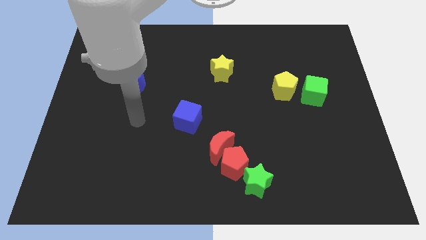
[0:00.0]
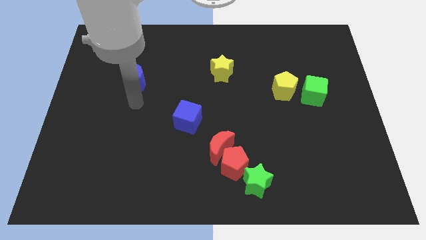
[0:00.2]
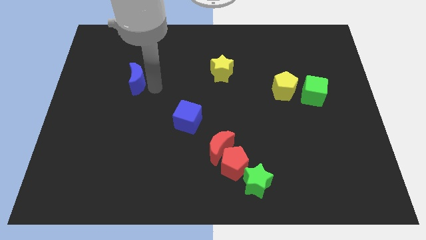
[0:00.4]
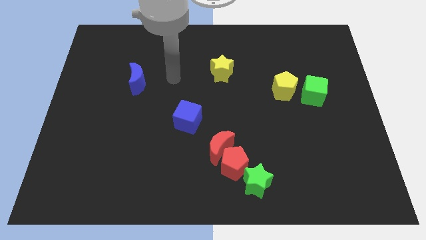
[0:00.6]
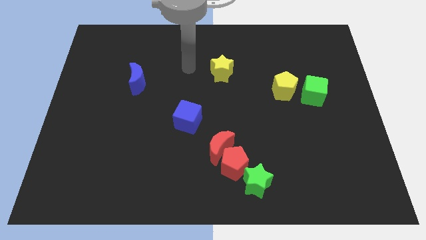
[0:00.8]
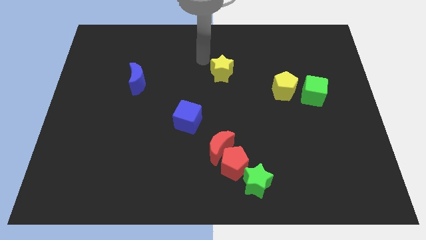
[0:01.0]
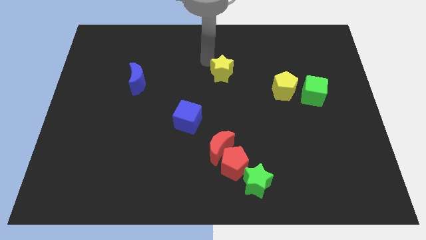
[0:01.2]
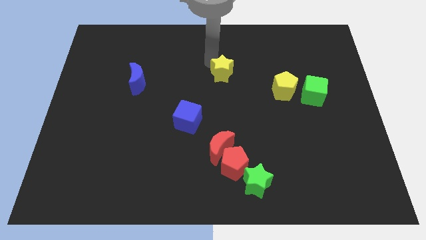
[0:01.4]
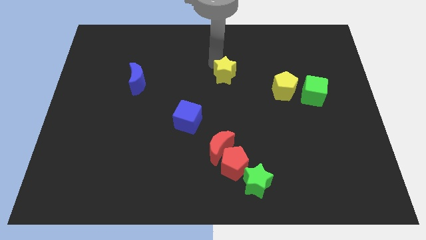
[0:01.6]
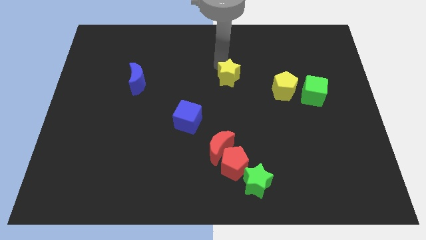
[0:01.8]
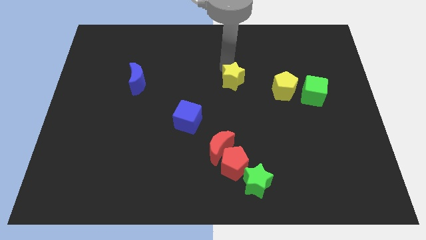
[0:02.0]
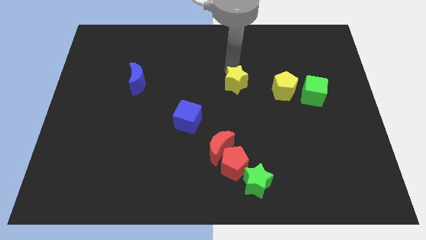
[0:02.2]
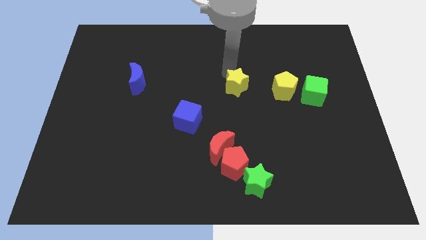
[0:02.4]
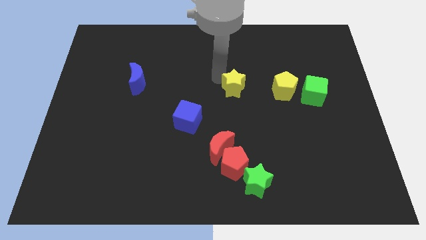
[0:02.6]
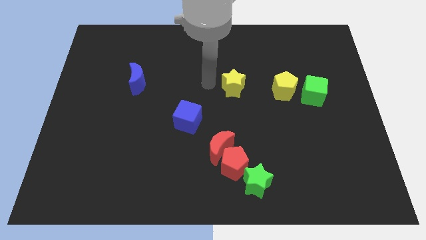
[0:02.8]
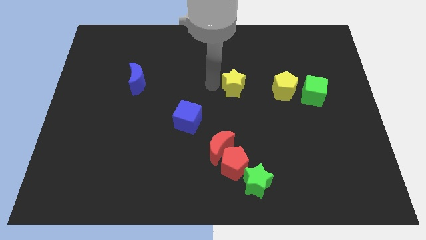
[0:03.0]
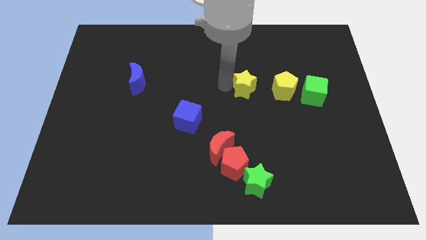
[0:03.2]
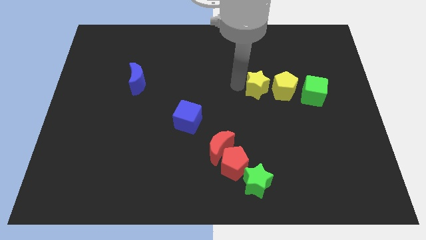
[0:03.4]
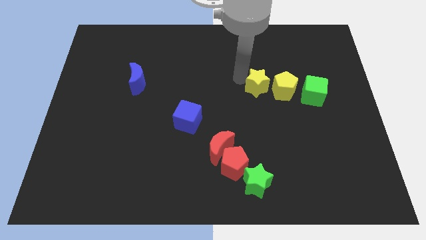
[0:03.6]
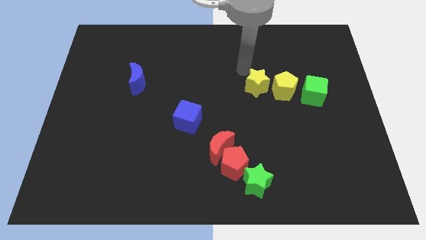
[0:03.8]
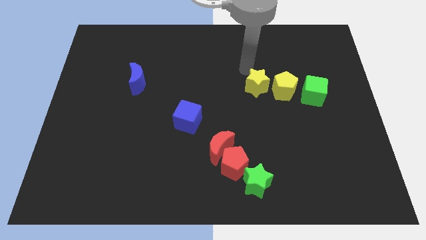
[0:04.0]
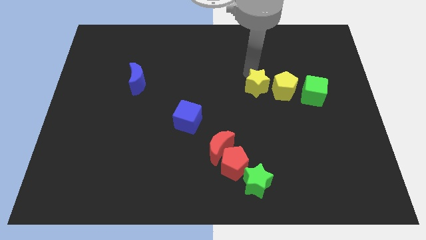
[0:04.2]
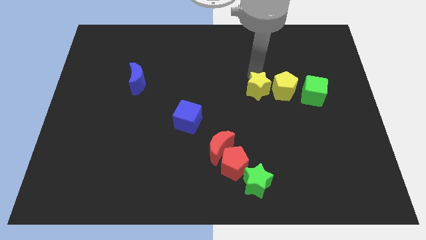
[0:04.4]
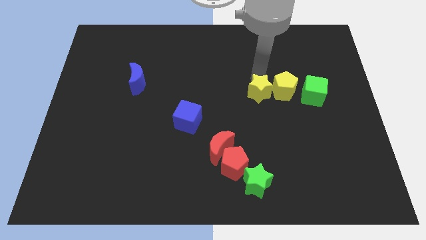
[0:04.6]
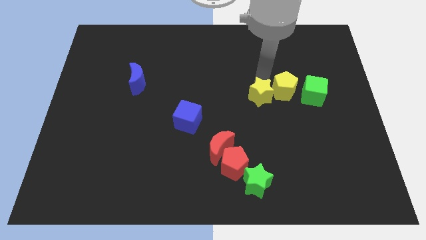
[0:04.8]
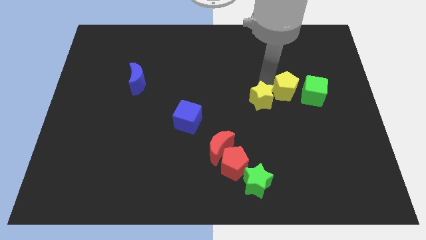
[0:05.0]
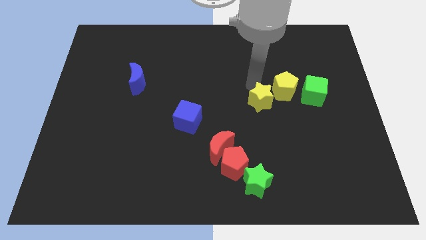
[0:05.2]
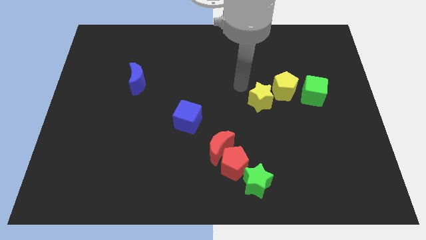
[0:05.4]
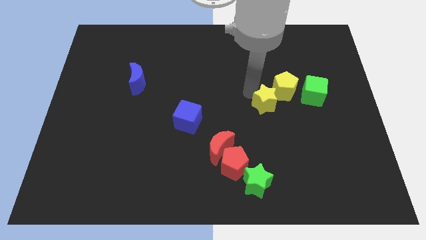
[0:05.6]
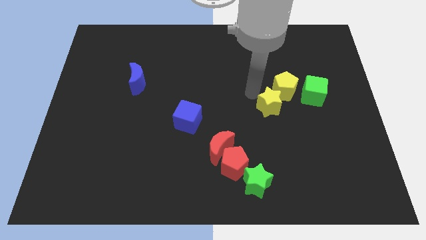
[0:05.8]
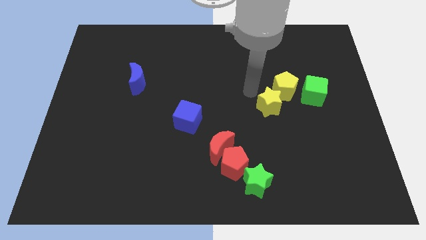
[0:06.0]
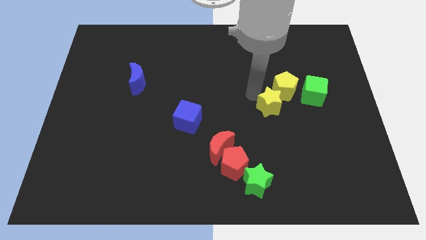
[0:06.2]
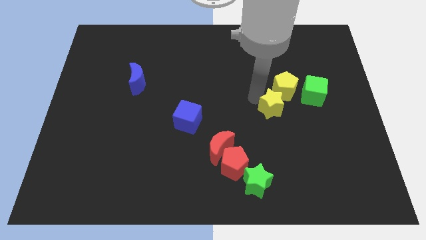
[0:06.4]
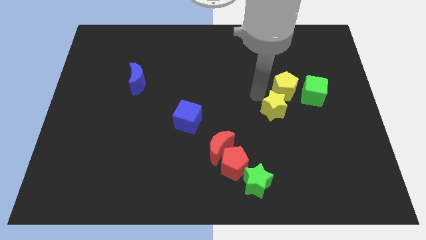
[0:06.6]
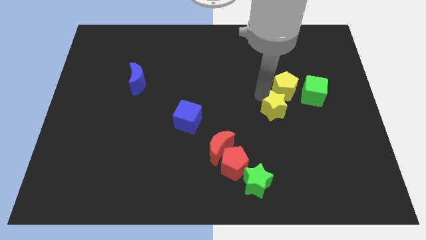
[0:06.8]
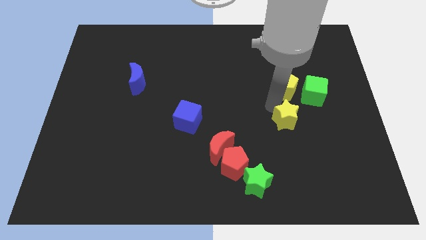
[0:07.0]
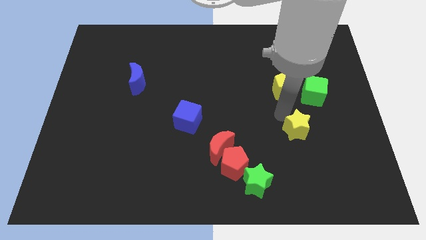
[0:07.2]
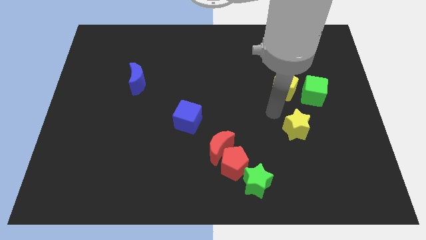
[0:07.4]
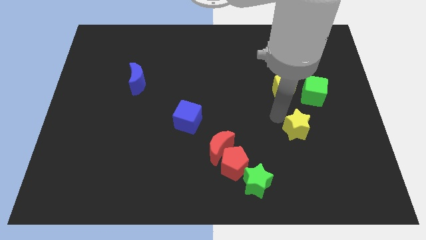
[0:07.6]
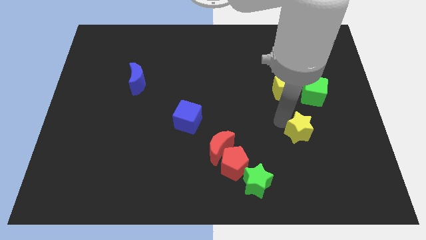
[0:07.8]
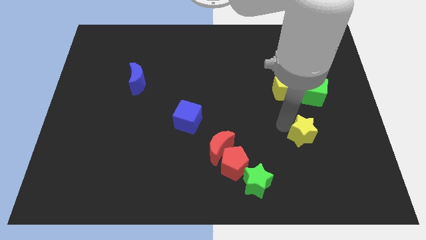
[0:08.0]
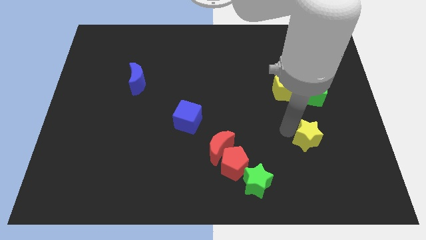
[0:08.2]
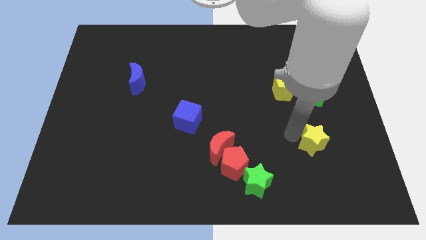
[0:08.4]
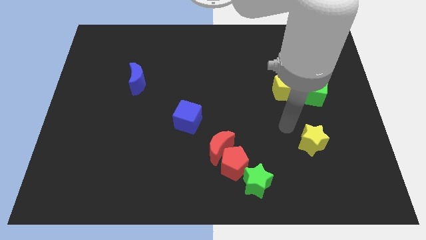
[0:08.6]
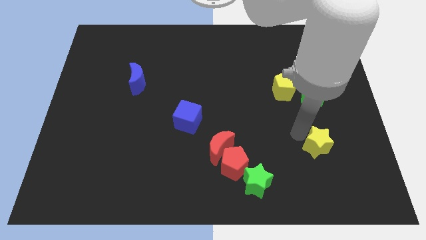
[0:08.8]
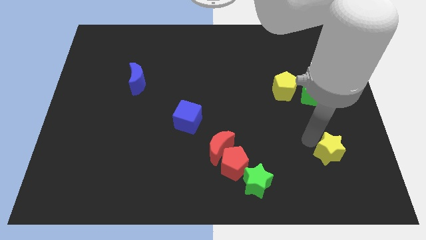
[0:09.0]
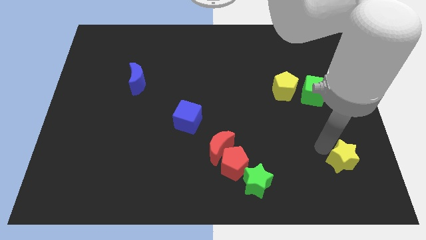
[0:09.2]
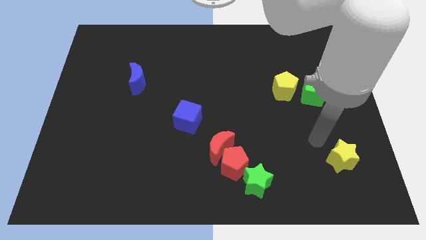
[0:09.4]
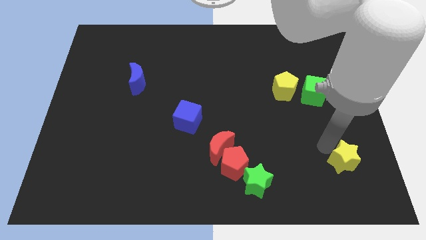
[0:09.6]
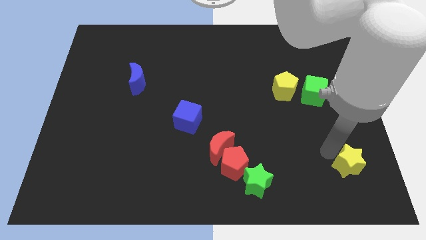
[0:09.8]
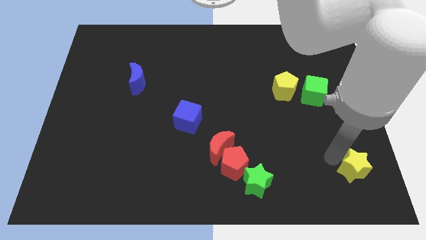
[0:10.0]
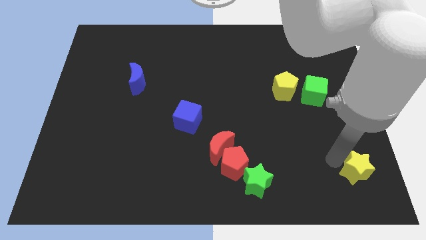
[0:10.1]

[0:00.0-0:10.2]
put the yellow star to the bottom right of the board

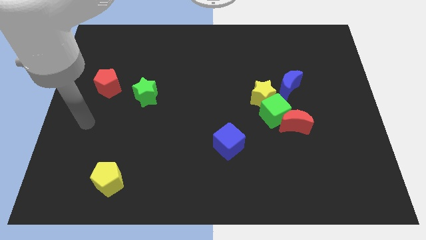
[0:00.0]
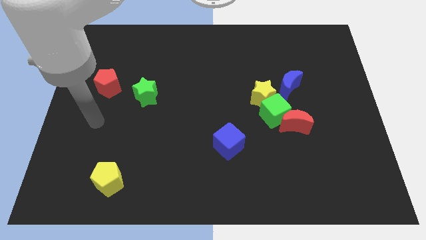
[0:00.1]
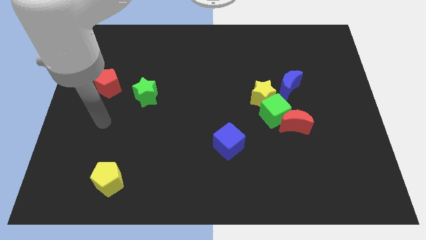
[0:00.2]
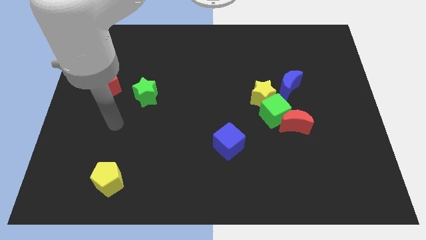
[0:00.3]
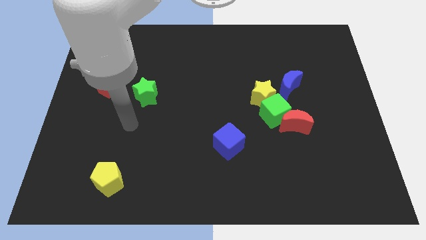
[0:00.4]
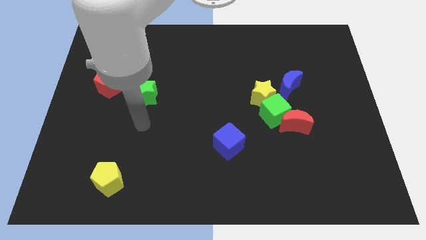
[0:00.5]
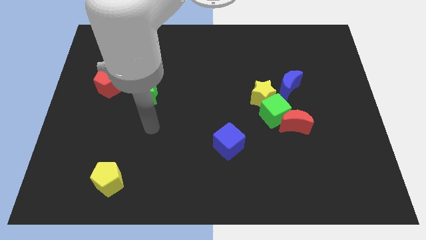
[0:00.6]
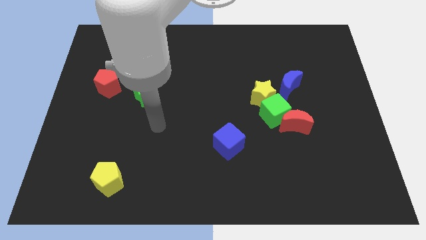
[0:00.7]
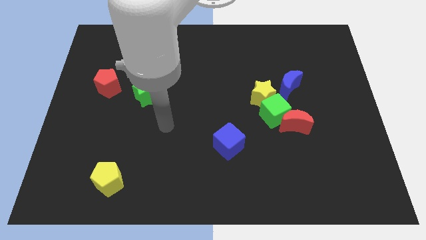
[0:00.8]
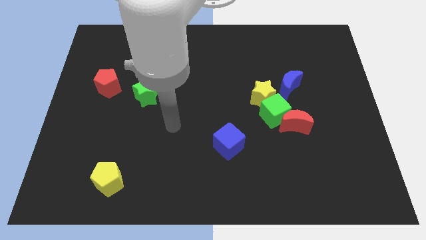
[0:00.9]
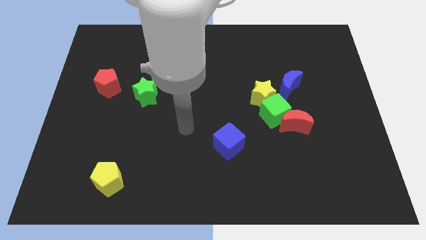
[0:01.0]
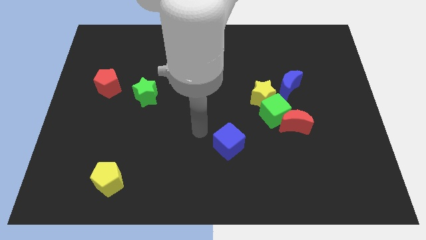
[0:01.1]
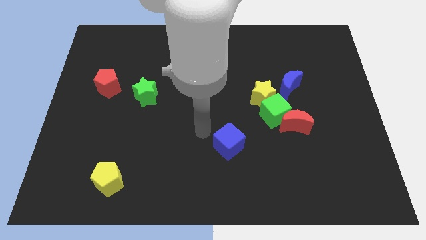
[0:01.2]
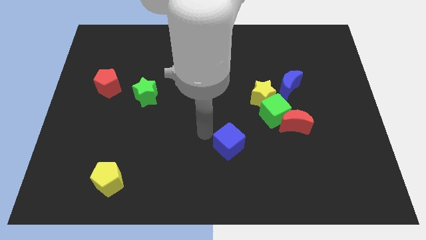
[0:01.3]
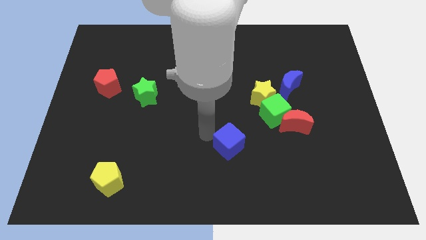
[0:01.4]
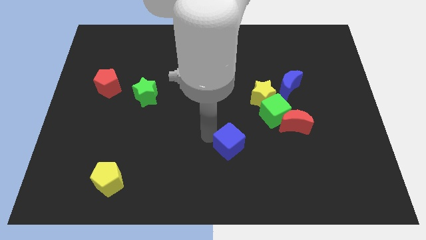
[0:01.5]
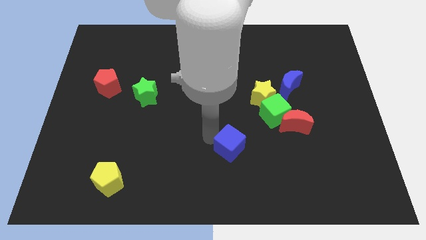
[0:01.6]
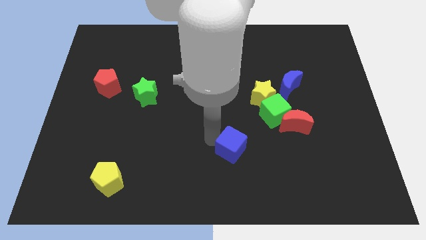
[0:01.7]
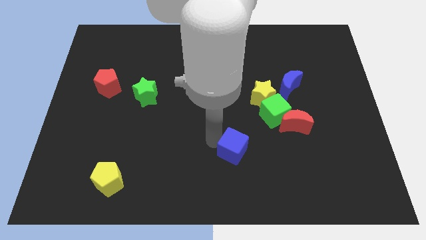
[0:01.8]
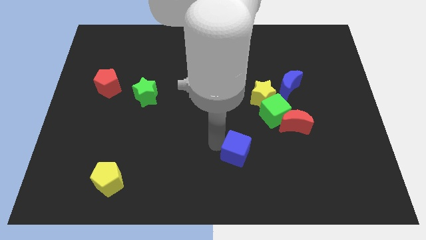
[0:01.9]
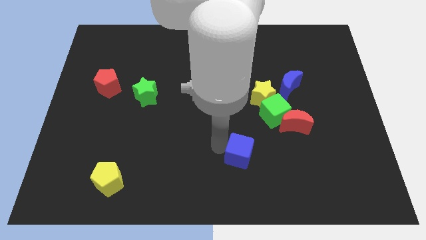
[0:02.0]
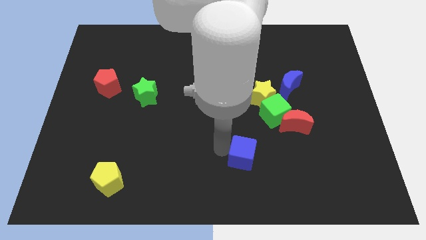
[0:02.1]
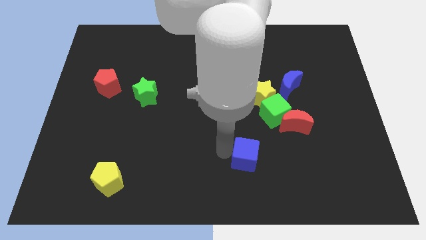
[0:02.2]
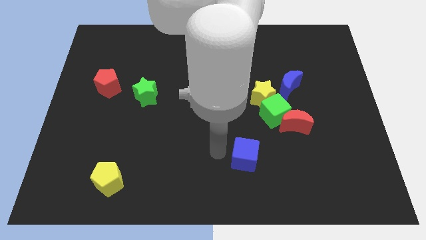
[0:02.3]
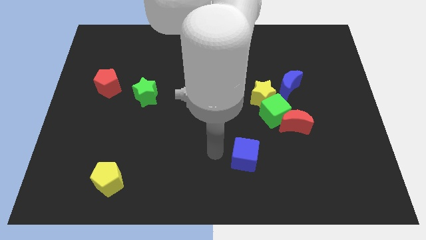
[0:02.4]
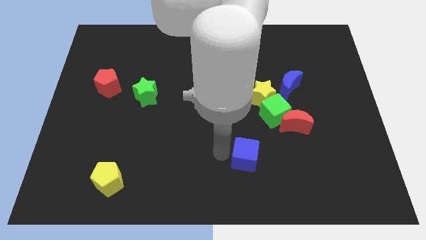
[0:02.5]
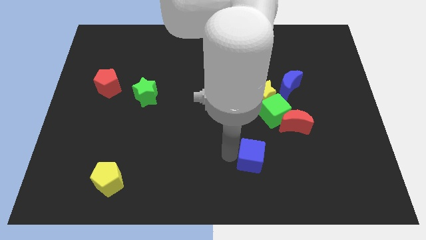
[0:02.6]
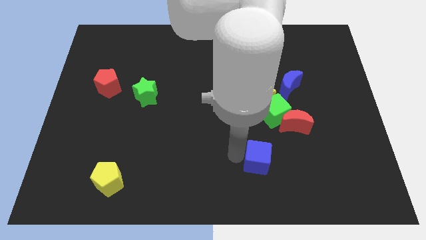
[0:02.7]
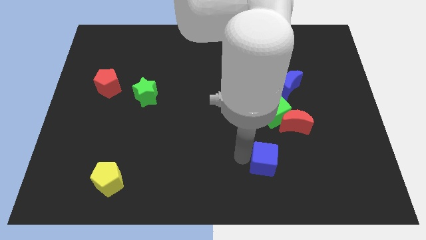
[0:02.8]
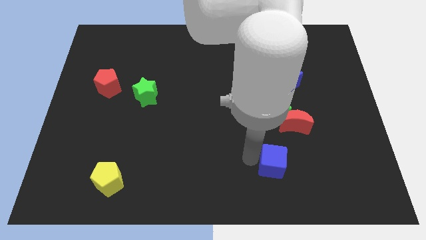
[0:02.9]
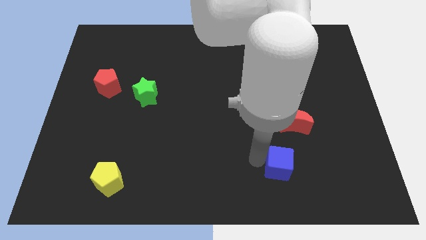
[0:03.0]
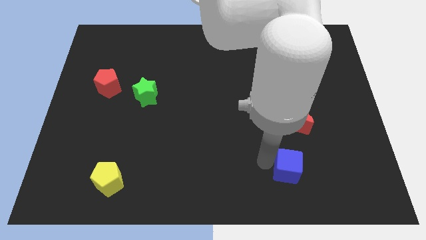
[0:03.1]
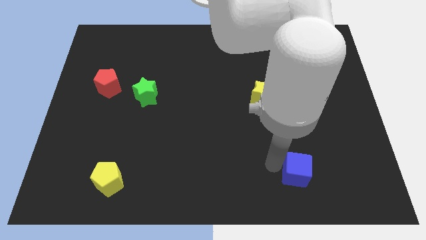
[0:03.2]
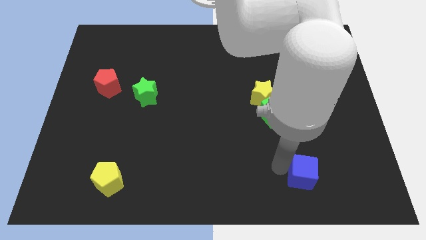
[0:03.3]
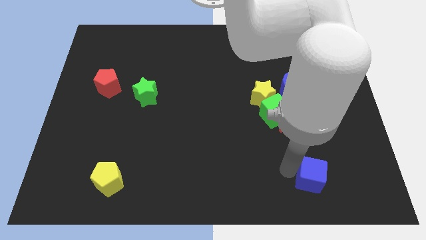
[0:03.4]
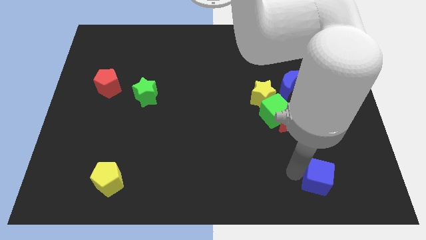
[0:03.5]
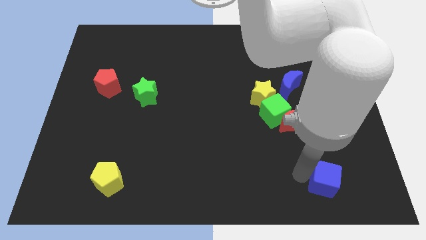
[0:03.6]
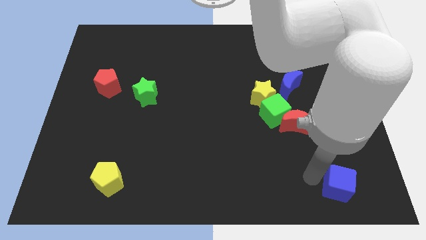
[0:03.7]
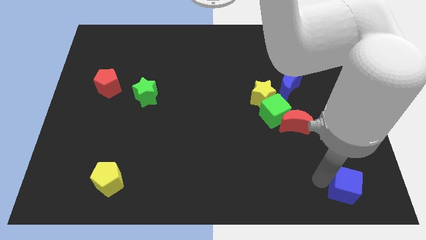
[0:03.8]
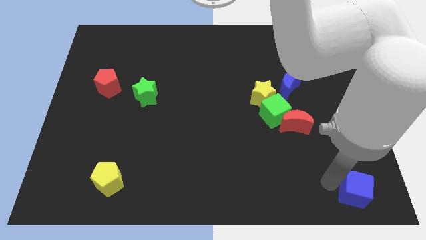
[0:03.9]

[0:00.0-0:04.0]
put the blue cube to the bottom right corner
